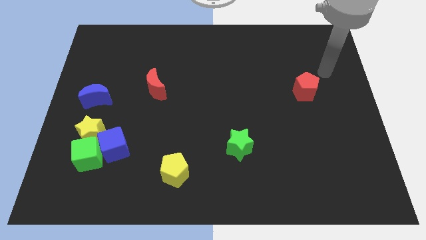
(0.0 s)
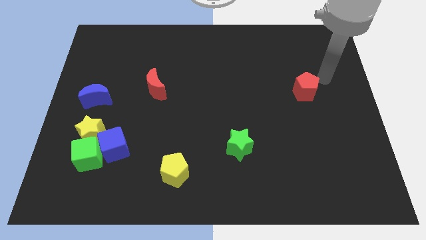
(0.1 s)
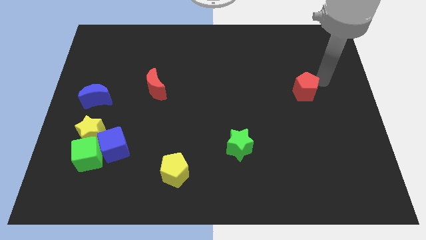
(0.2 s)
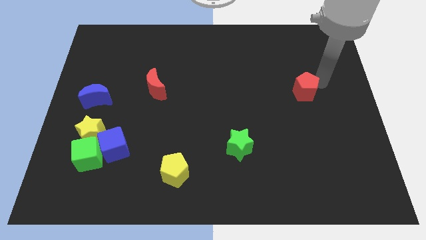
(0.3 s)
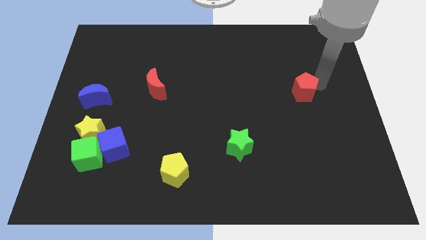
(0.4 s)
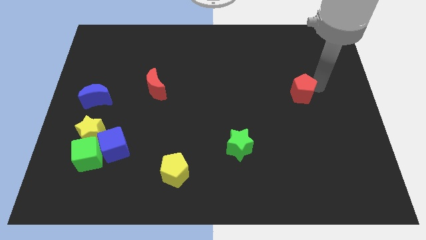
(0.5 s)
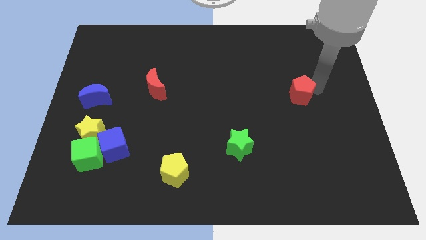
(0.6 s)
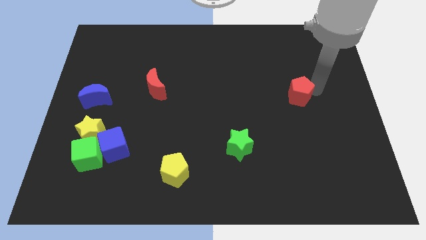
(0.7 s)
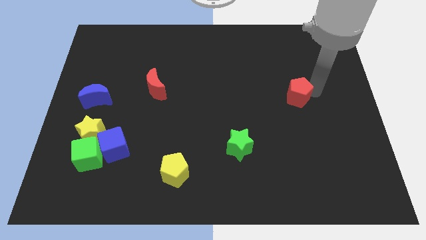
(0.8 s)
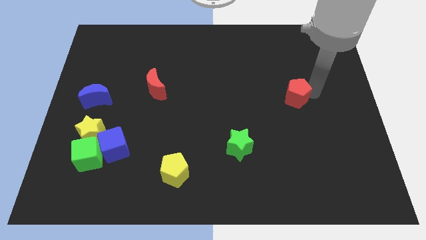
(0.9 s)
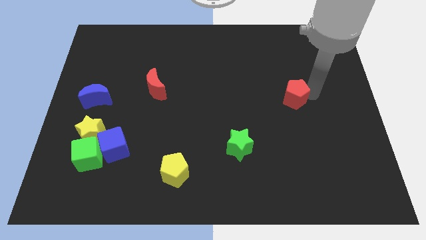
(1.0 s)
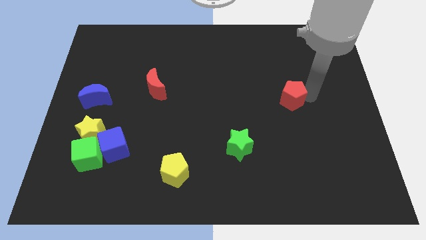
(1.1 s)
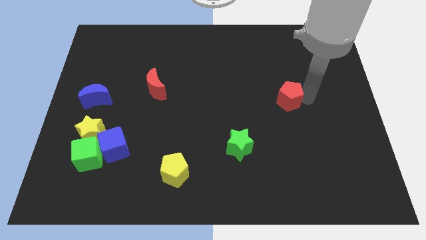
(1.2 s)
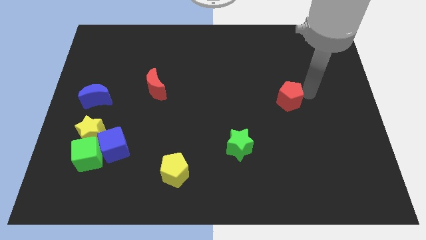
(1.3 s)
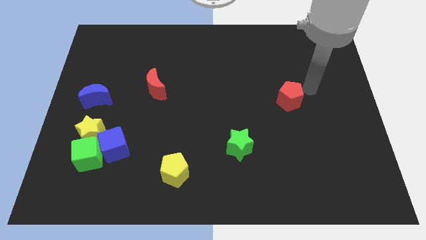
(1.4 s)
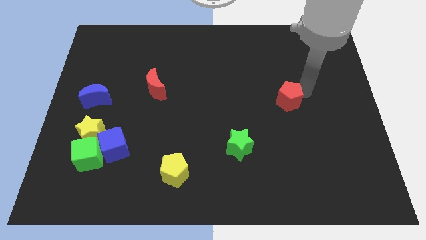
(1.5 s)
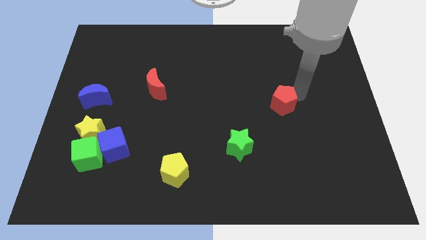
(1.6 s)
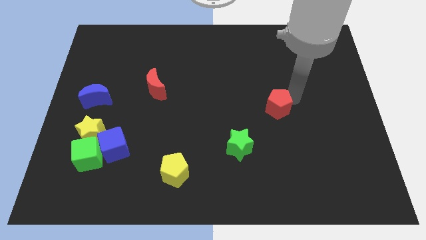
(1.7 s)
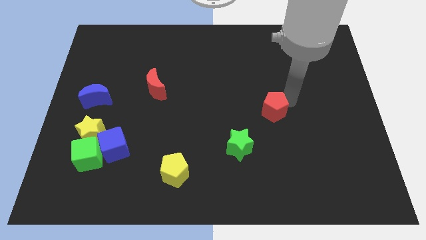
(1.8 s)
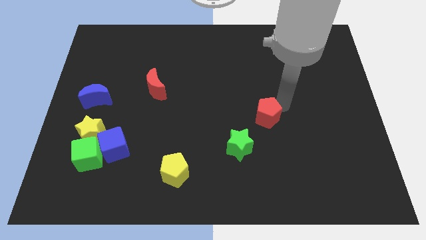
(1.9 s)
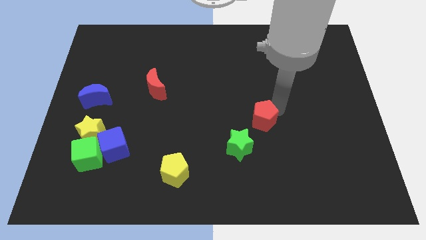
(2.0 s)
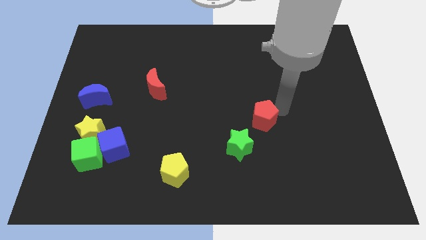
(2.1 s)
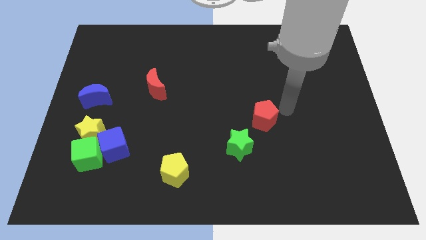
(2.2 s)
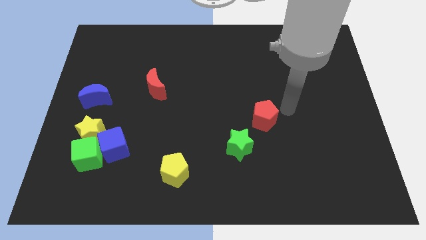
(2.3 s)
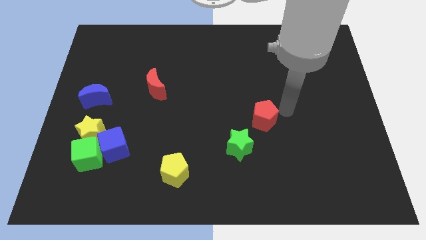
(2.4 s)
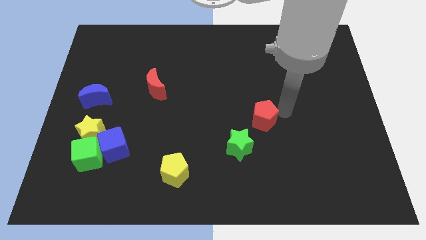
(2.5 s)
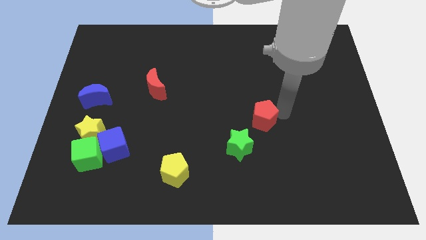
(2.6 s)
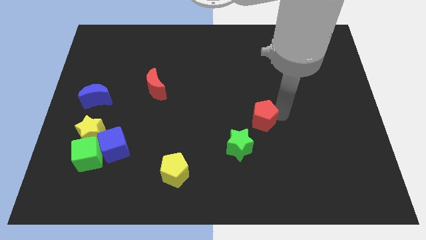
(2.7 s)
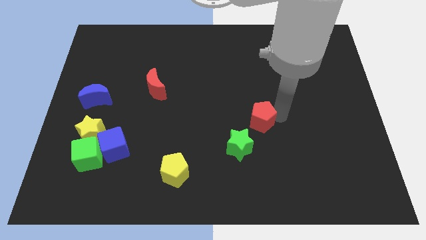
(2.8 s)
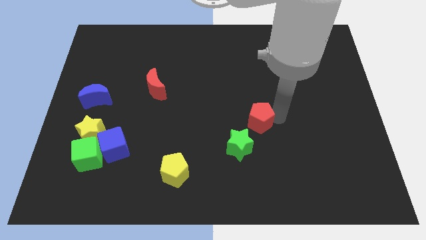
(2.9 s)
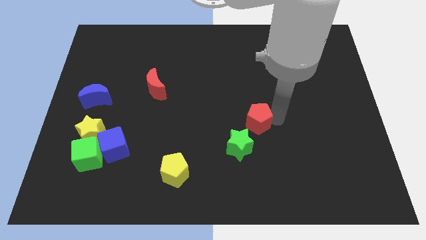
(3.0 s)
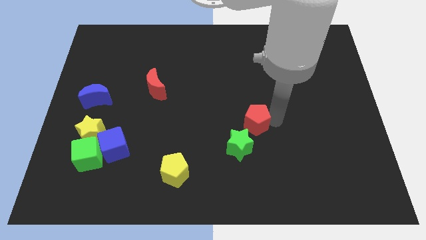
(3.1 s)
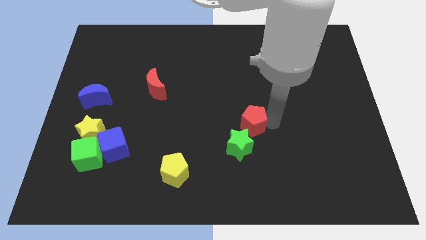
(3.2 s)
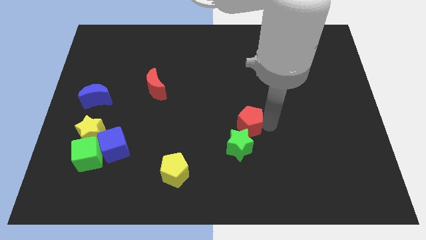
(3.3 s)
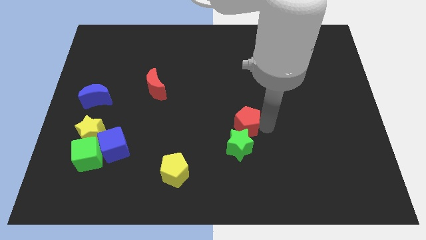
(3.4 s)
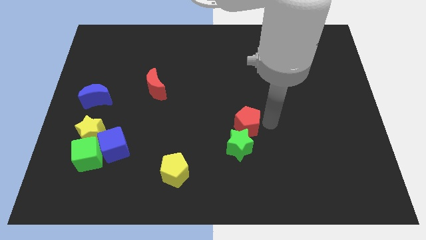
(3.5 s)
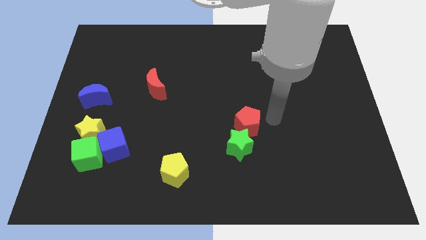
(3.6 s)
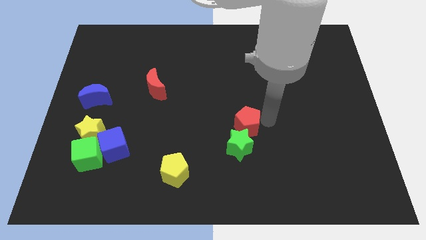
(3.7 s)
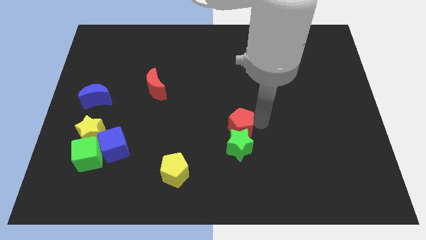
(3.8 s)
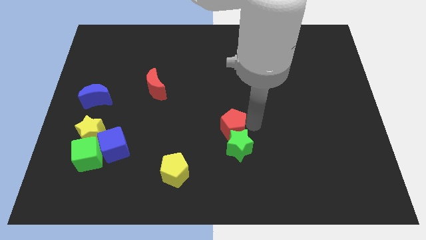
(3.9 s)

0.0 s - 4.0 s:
move the red pentagon diagonally downwards and left

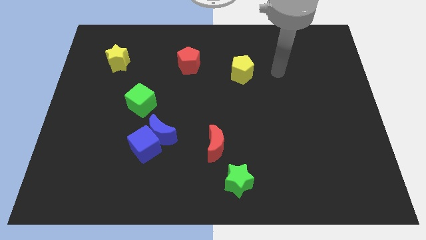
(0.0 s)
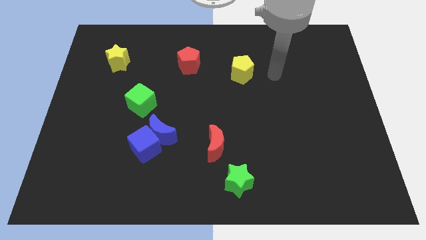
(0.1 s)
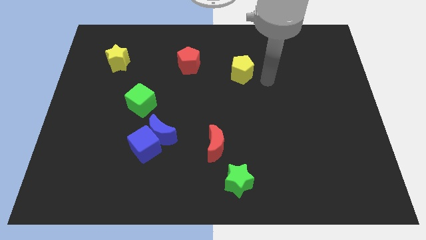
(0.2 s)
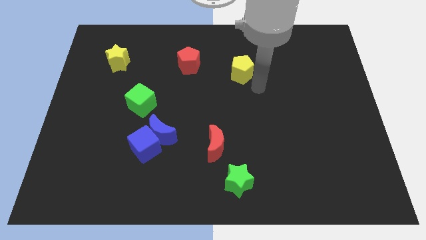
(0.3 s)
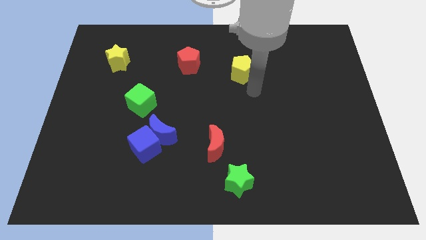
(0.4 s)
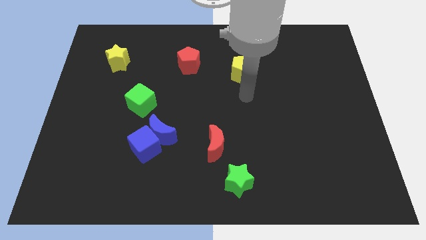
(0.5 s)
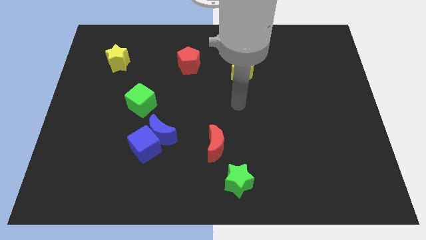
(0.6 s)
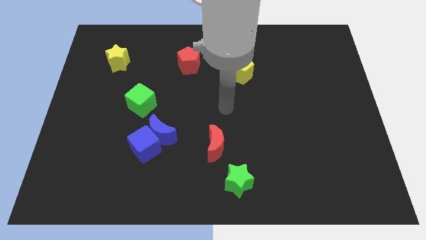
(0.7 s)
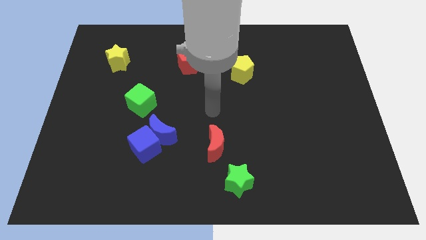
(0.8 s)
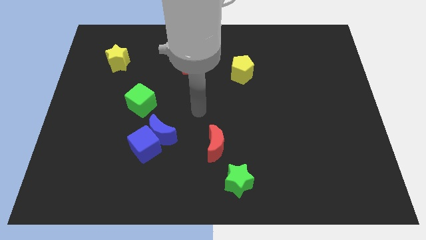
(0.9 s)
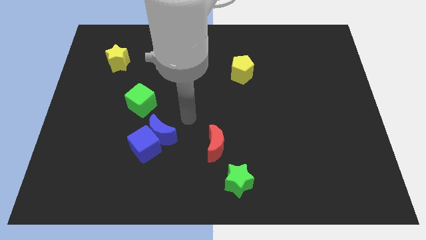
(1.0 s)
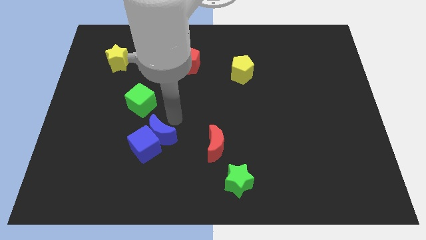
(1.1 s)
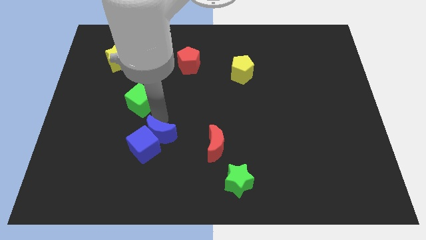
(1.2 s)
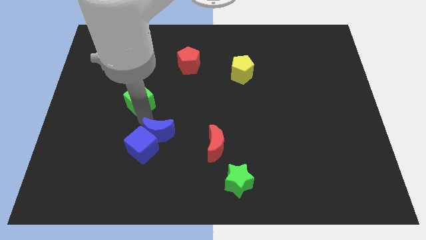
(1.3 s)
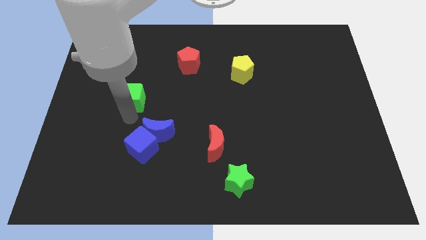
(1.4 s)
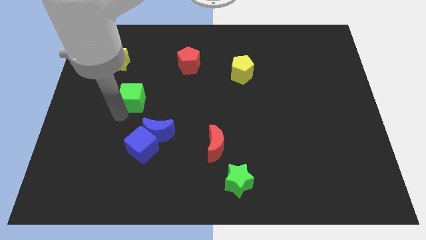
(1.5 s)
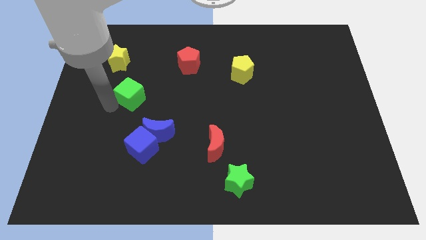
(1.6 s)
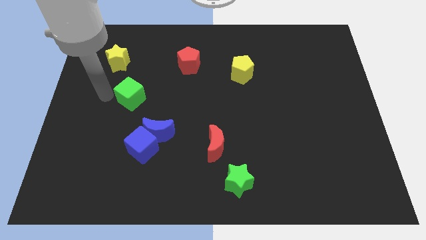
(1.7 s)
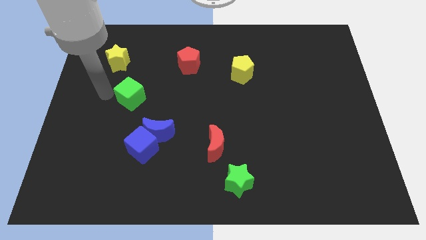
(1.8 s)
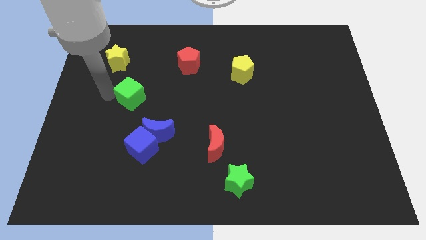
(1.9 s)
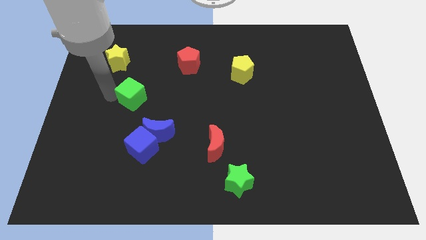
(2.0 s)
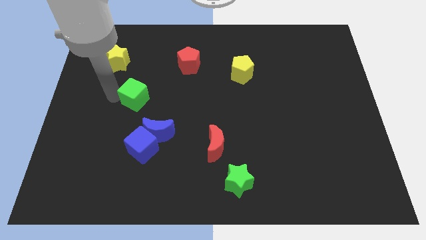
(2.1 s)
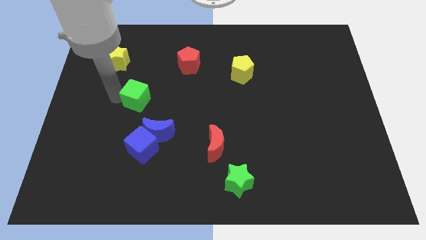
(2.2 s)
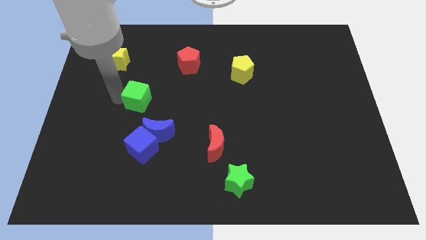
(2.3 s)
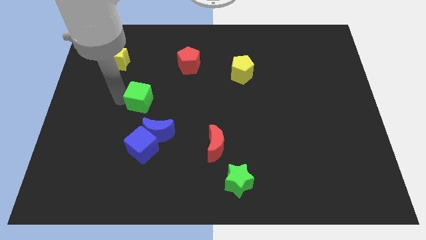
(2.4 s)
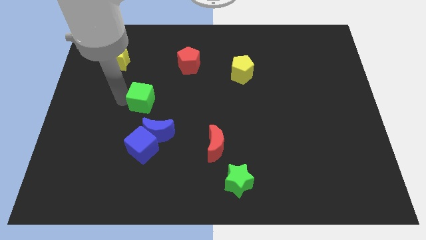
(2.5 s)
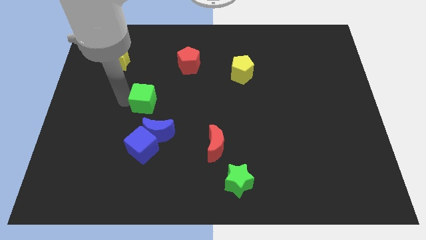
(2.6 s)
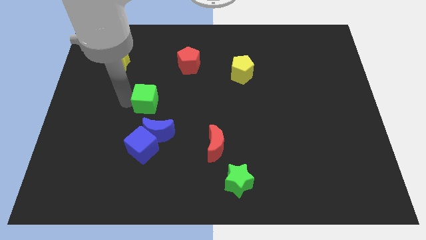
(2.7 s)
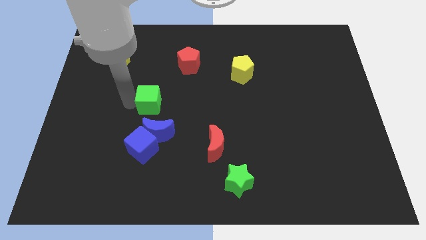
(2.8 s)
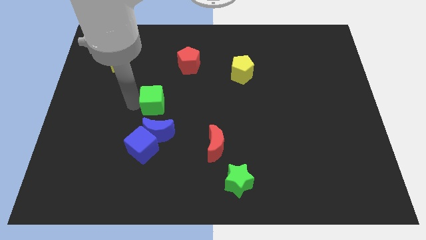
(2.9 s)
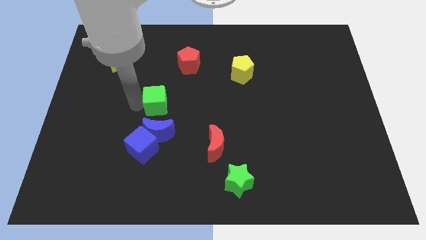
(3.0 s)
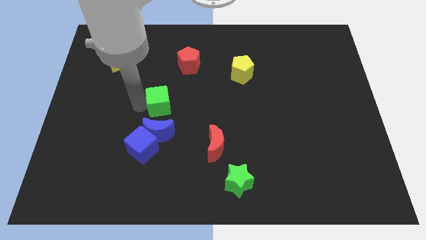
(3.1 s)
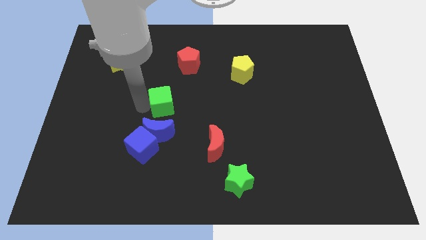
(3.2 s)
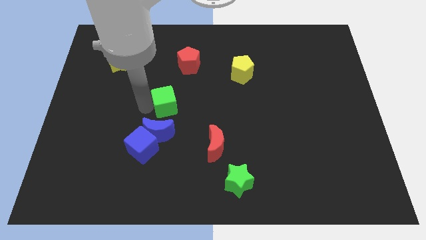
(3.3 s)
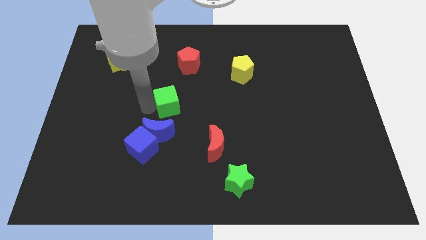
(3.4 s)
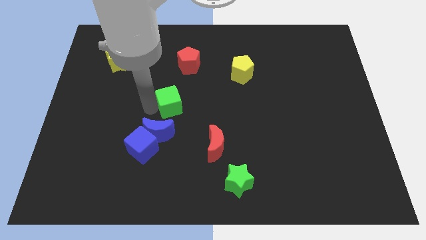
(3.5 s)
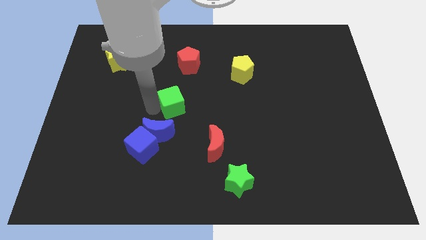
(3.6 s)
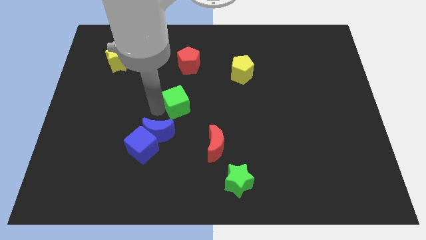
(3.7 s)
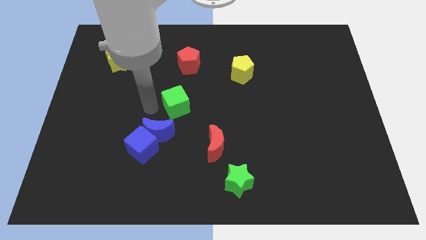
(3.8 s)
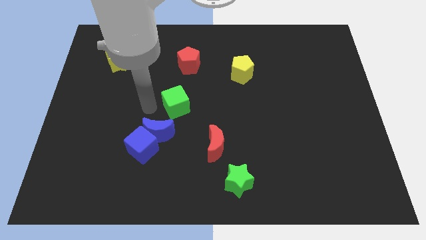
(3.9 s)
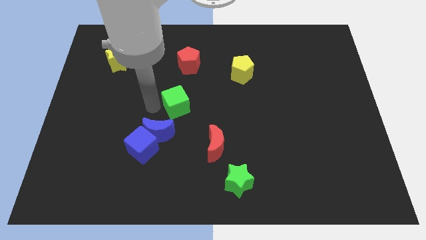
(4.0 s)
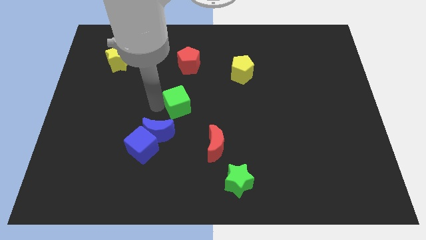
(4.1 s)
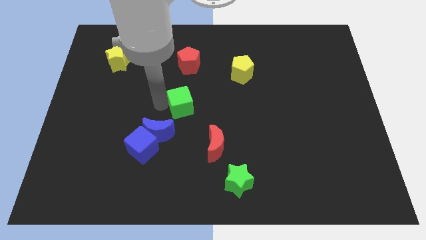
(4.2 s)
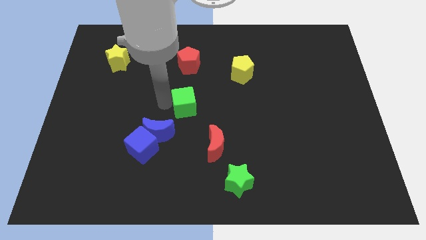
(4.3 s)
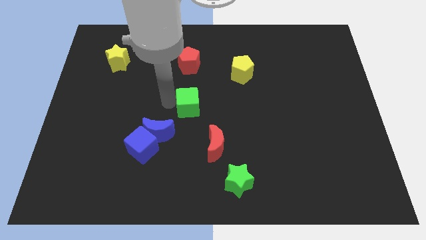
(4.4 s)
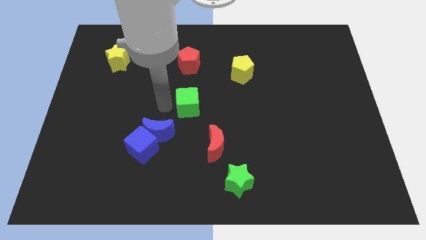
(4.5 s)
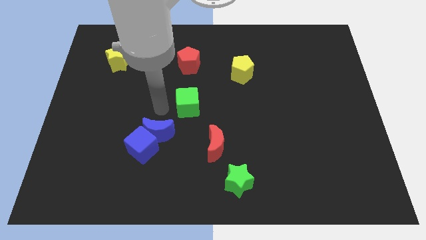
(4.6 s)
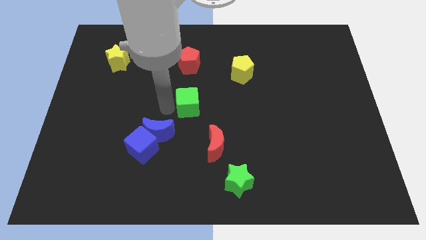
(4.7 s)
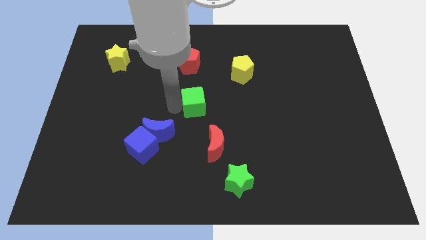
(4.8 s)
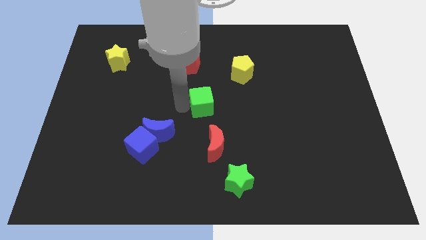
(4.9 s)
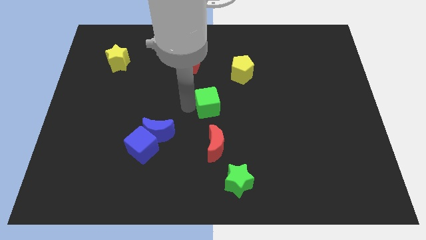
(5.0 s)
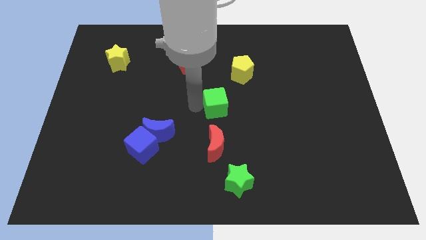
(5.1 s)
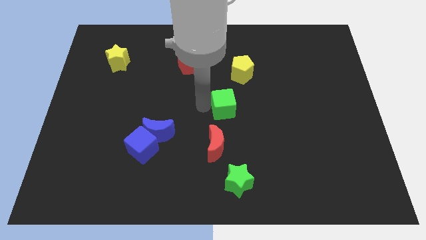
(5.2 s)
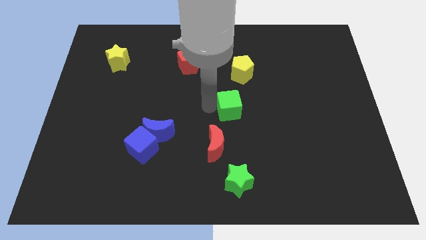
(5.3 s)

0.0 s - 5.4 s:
move the green cube to the right
